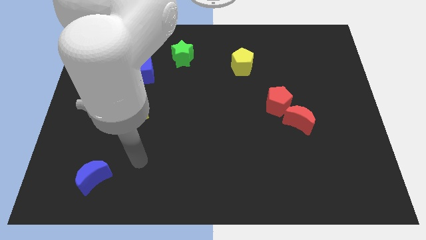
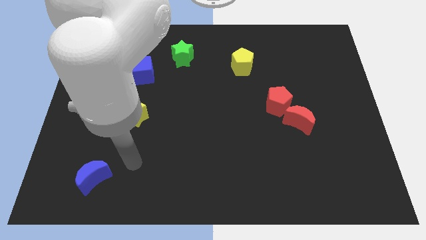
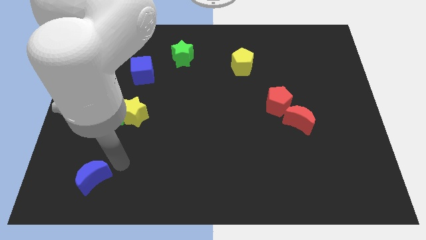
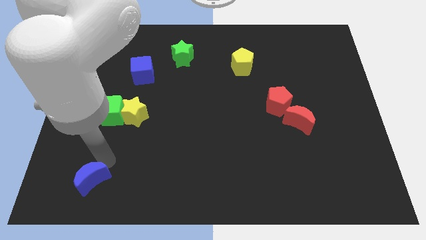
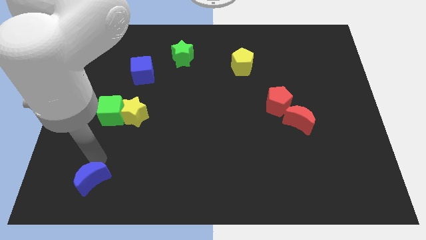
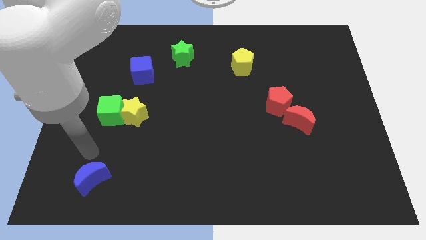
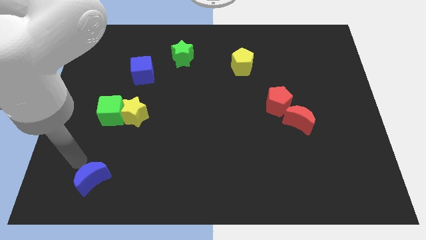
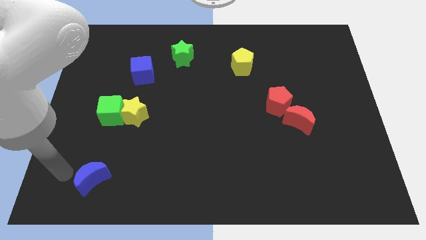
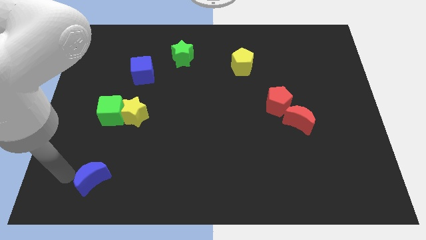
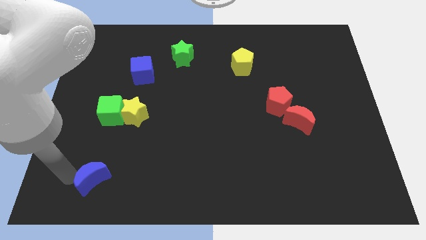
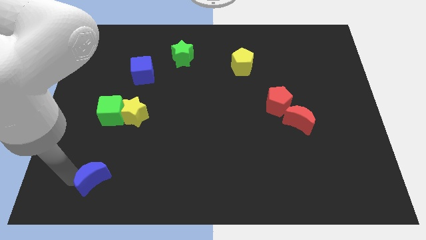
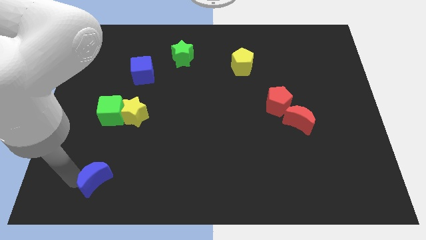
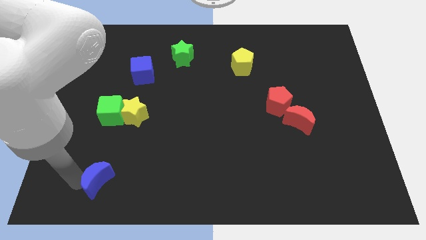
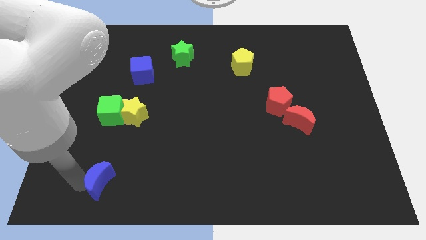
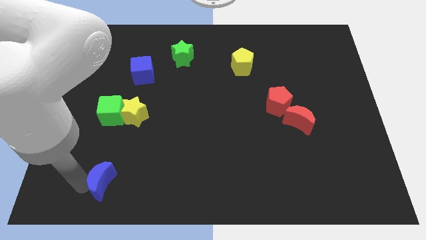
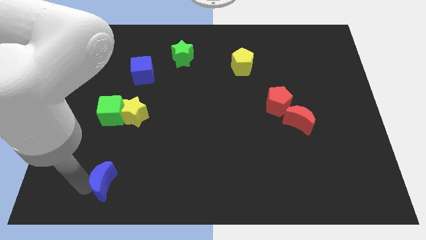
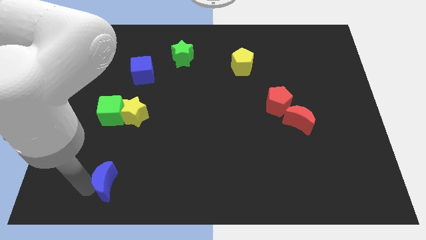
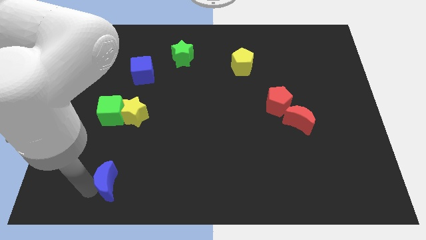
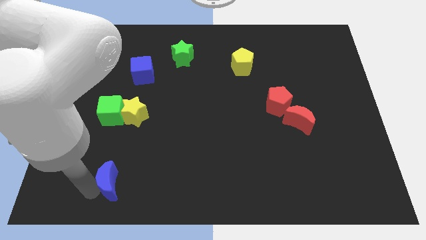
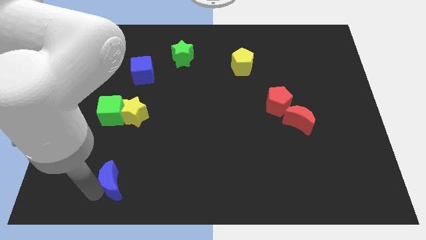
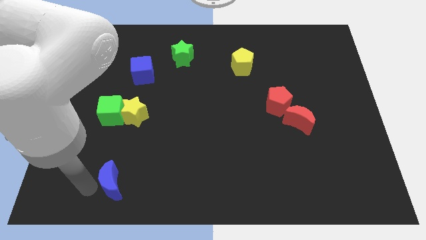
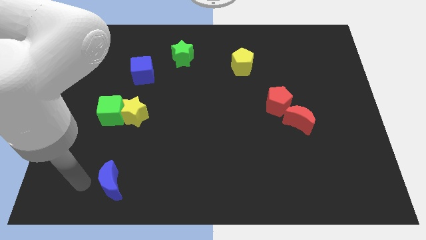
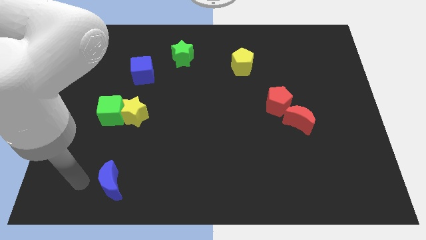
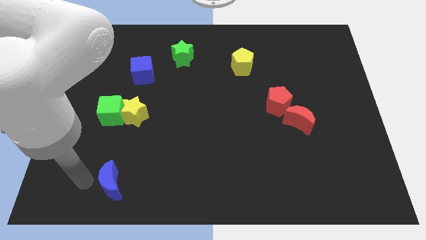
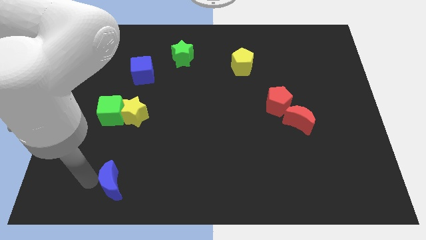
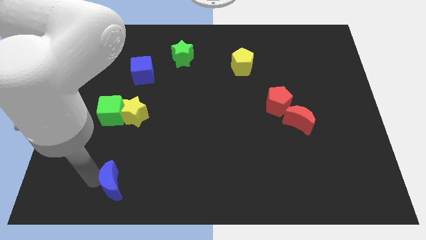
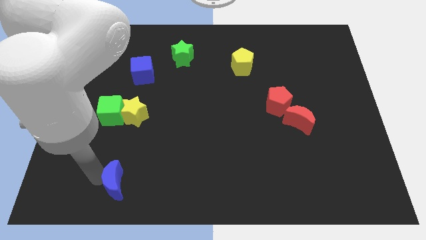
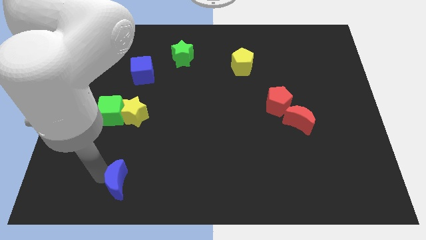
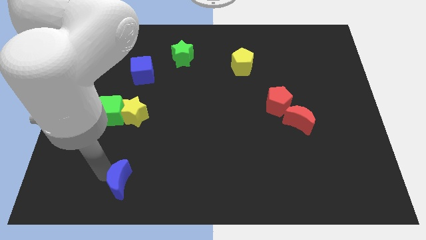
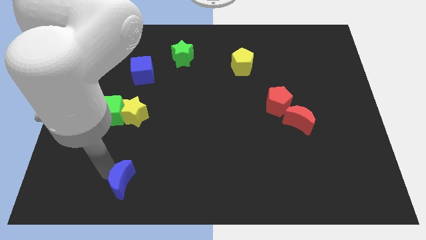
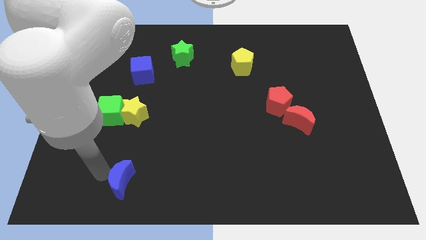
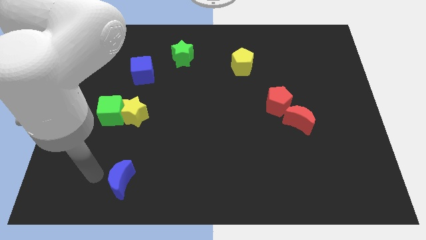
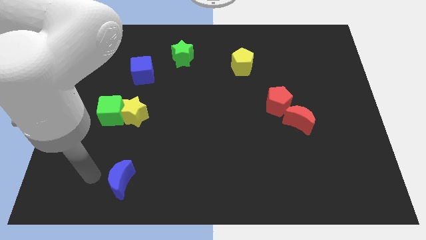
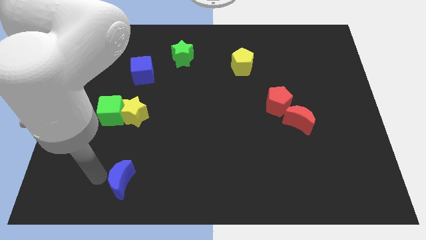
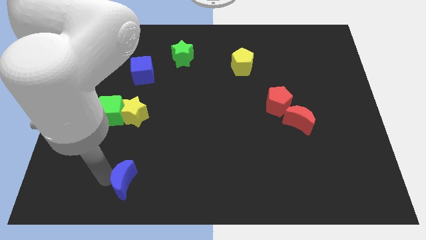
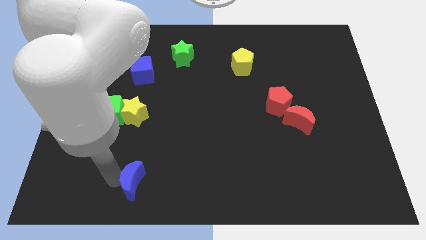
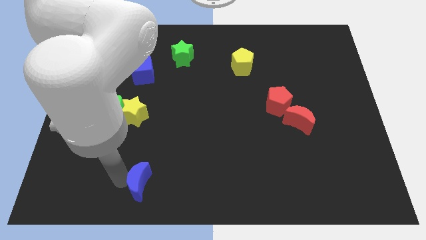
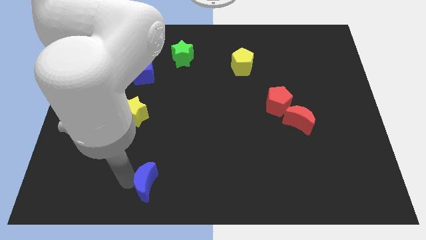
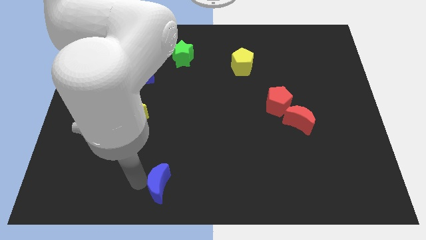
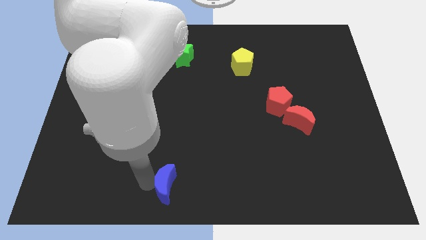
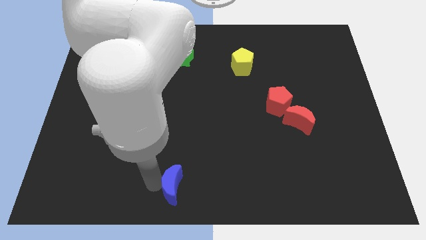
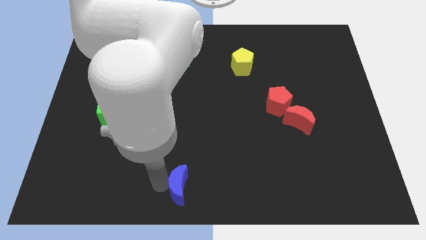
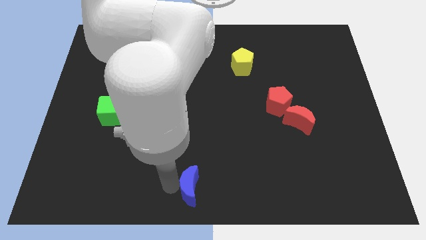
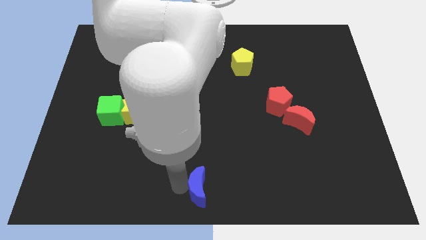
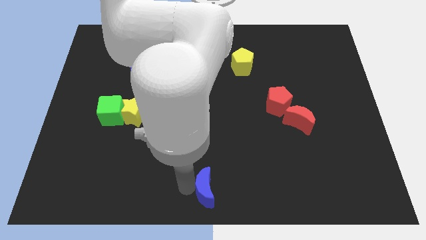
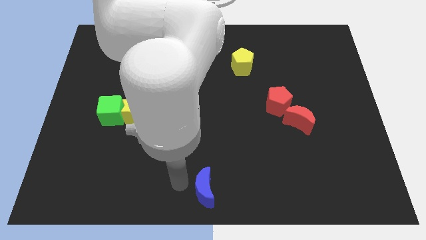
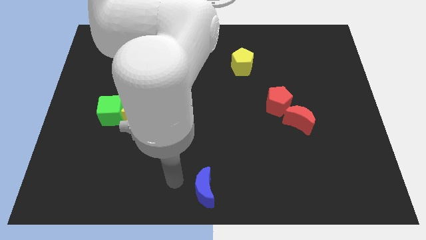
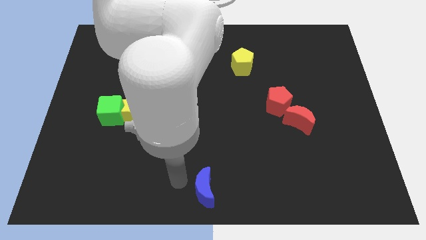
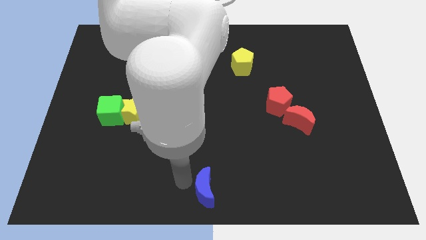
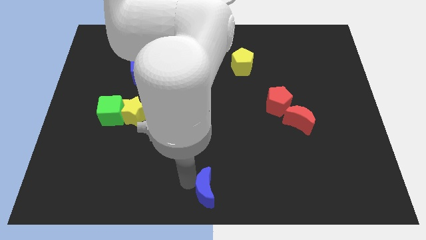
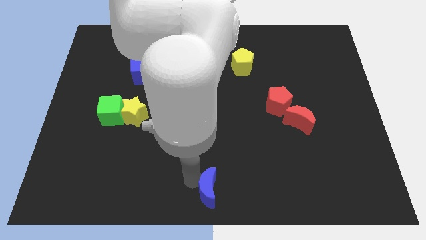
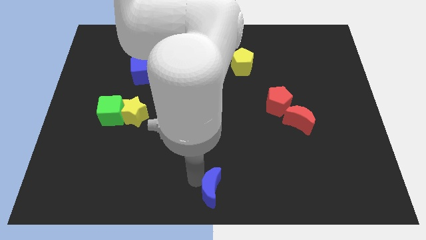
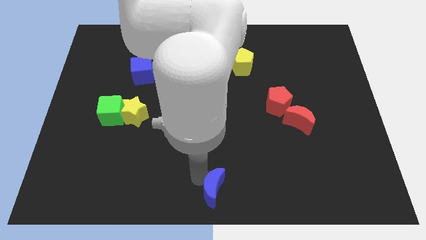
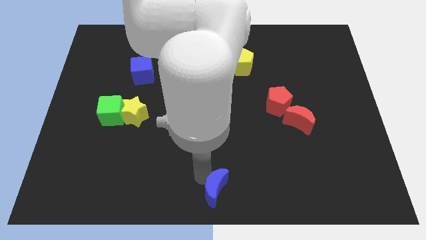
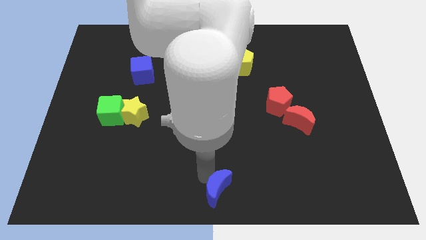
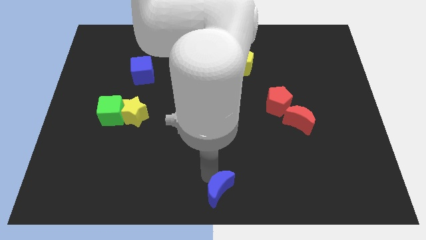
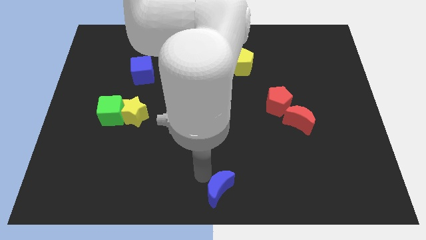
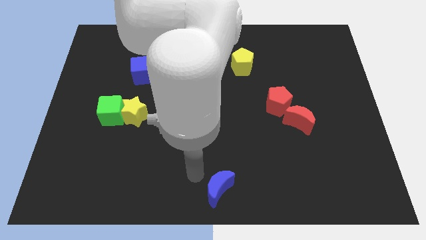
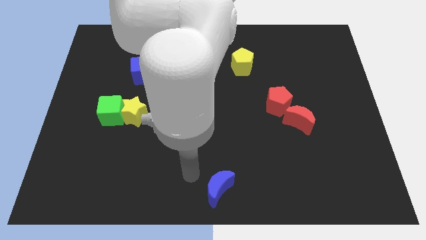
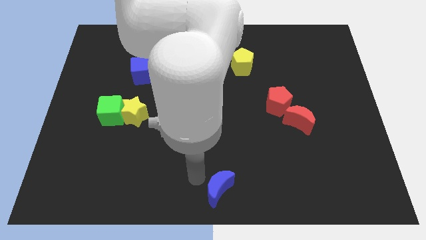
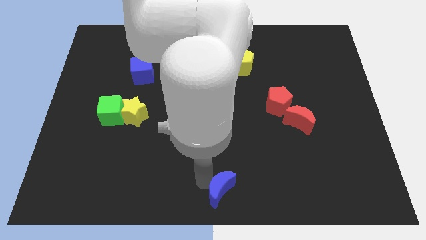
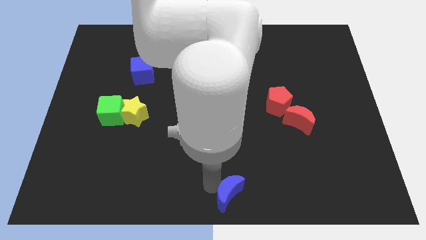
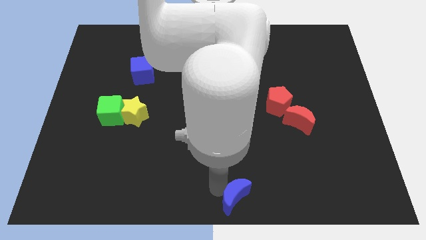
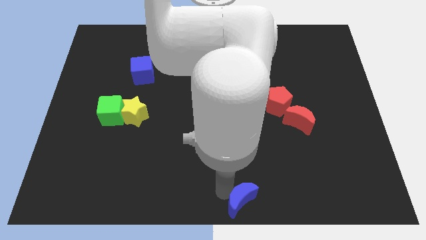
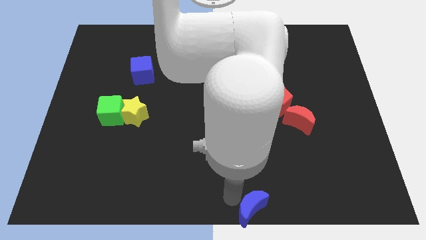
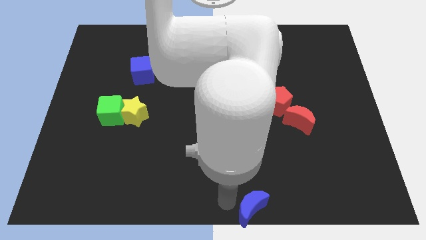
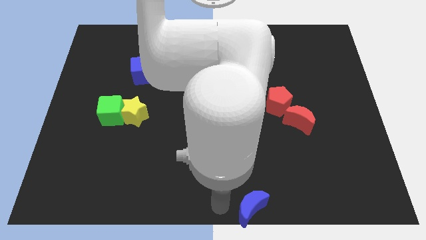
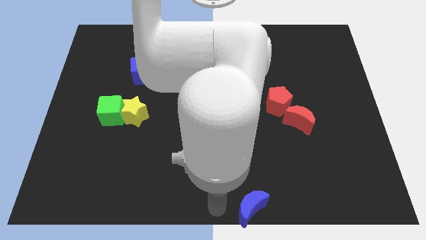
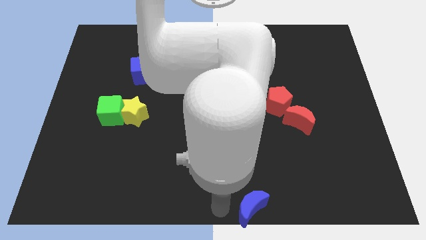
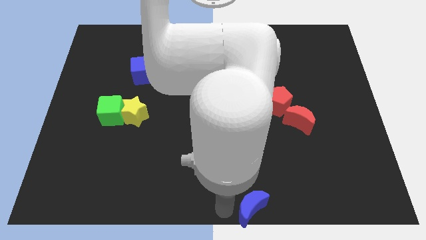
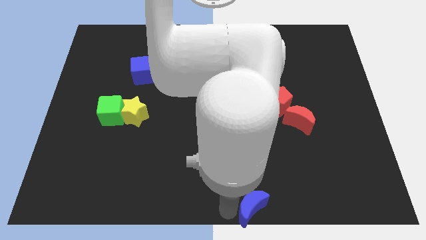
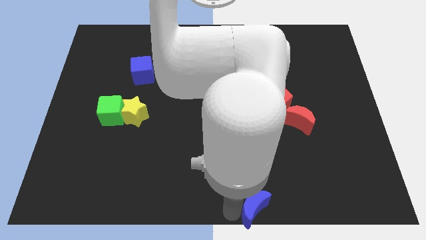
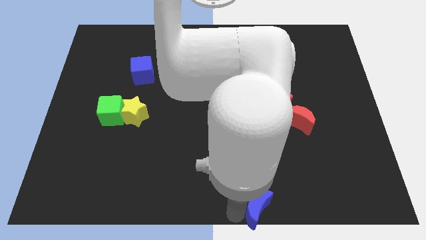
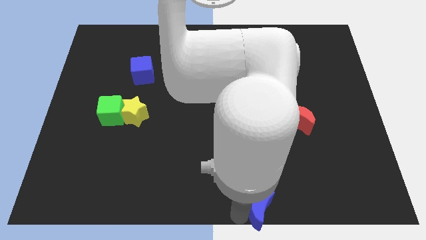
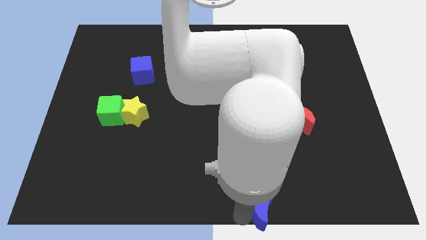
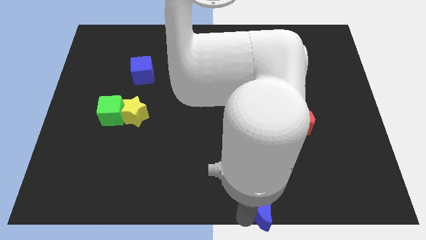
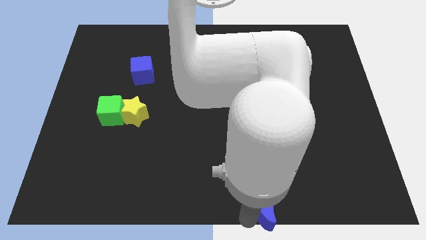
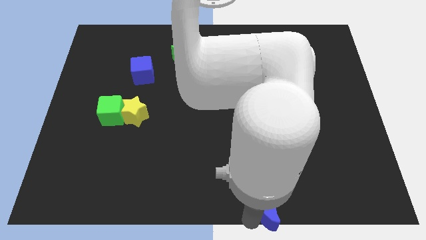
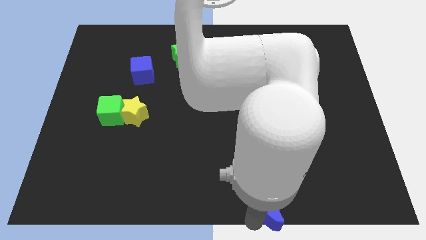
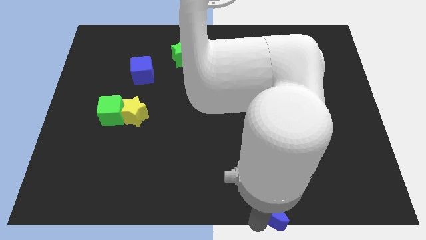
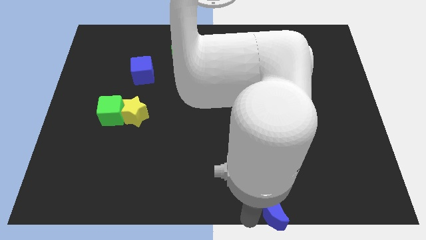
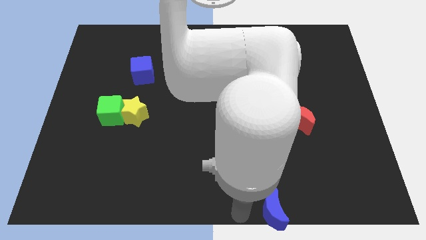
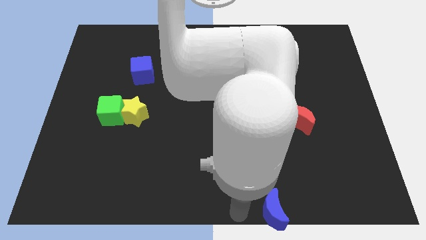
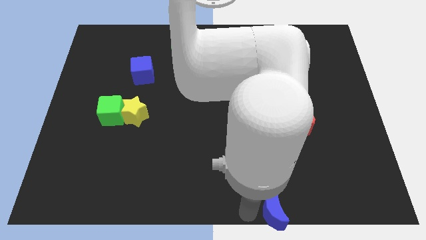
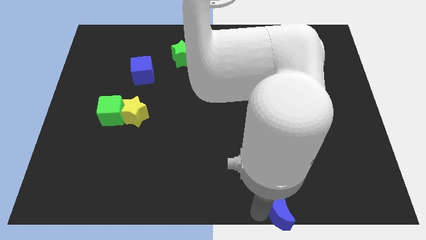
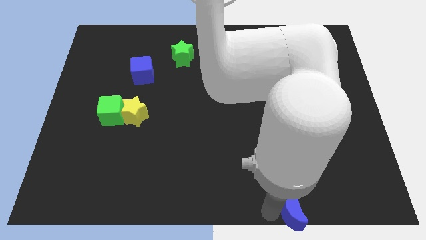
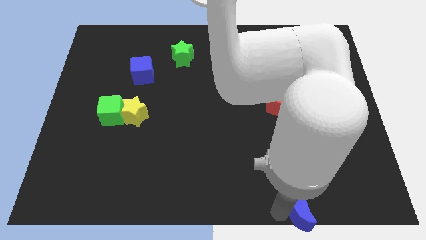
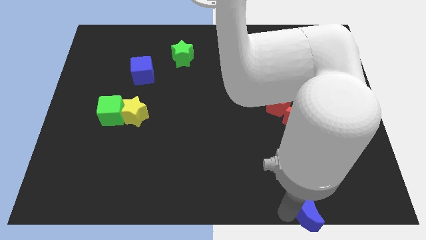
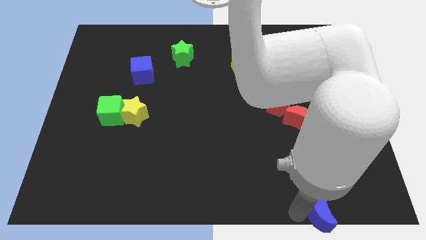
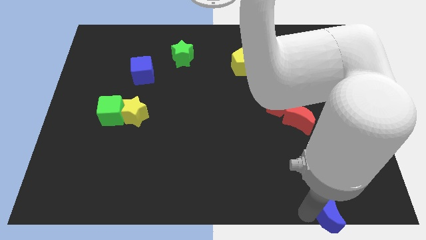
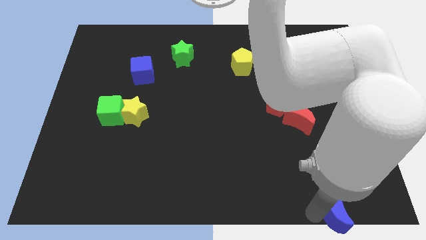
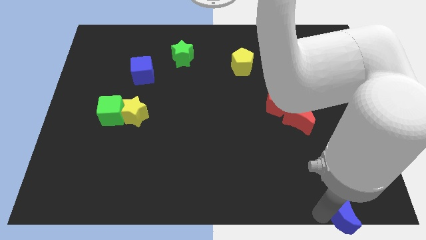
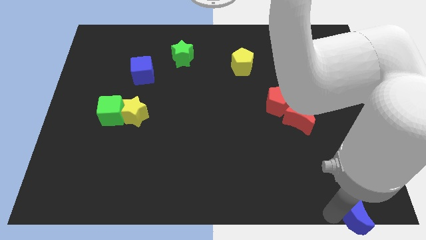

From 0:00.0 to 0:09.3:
move the blue moon to the bottom right
